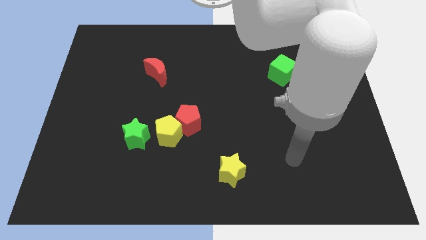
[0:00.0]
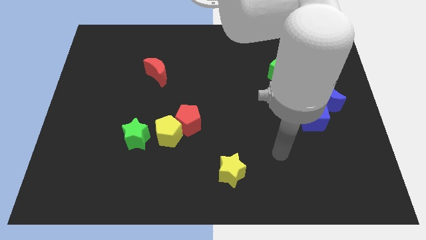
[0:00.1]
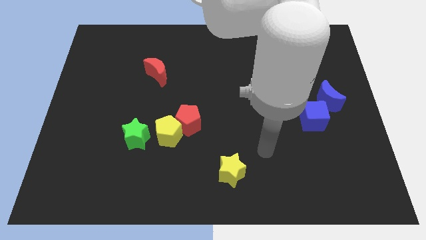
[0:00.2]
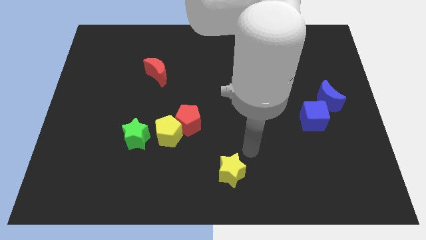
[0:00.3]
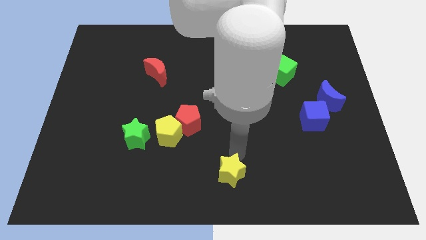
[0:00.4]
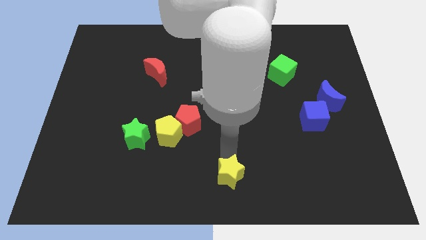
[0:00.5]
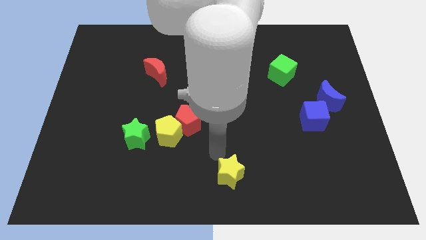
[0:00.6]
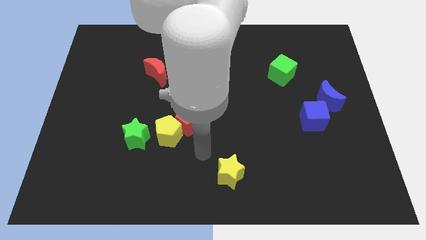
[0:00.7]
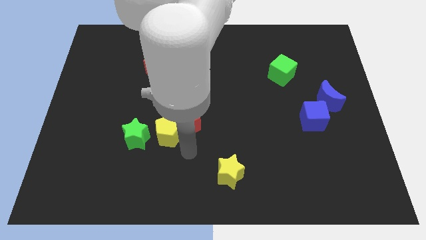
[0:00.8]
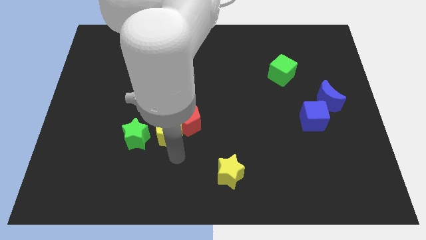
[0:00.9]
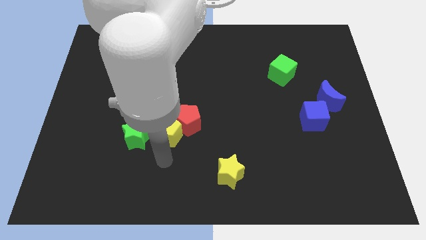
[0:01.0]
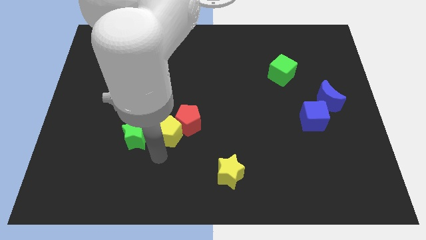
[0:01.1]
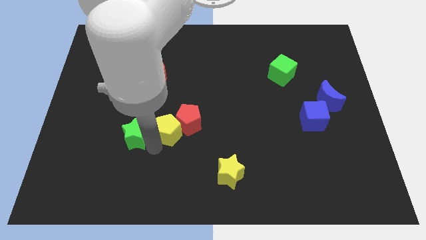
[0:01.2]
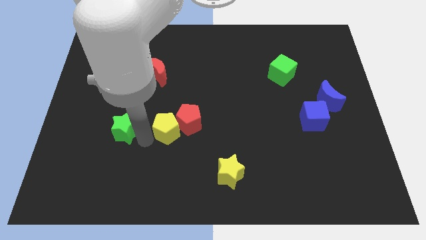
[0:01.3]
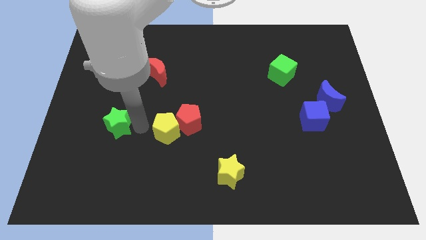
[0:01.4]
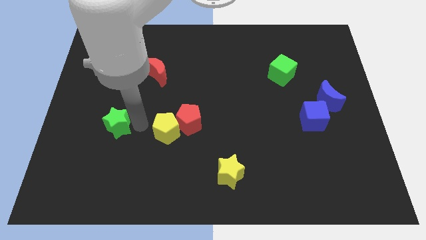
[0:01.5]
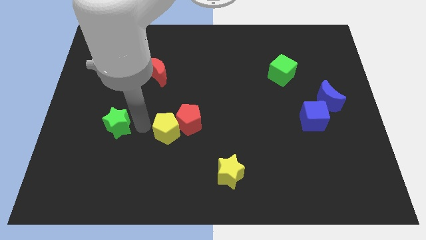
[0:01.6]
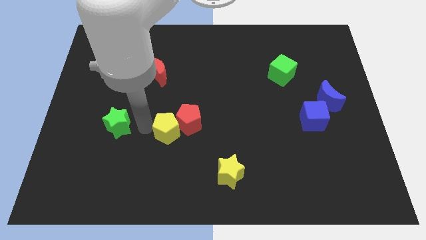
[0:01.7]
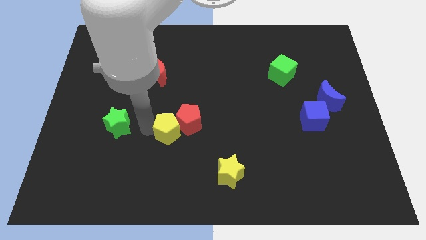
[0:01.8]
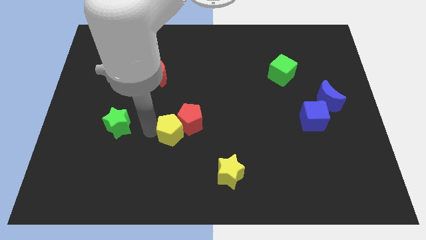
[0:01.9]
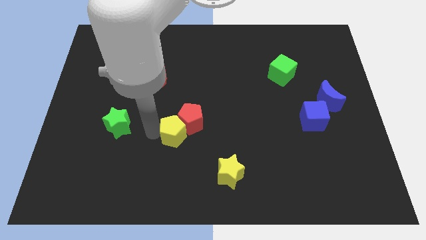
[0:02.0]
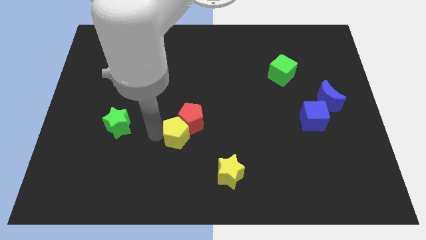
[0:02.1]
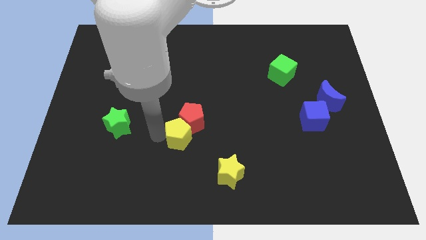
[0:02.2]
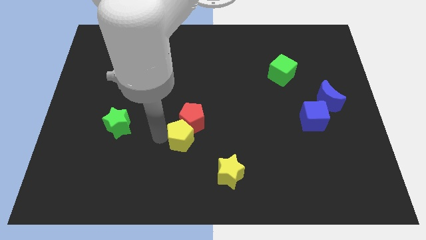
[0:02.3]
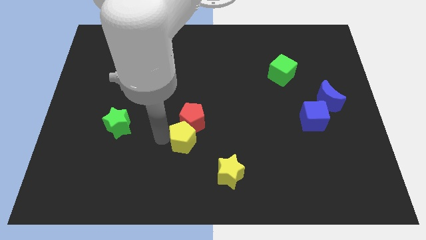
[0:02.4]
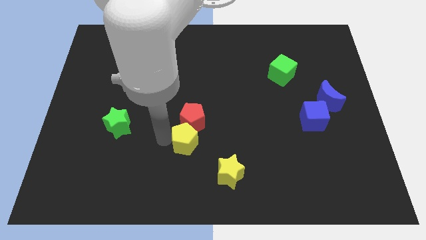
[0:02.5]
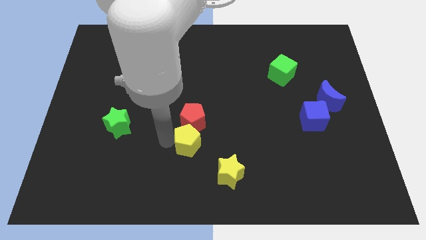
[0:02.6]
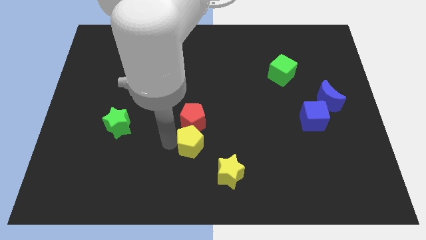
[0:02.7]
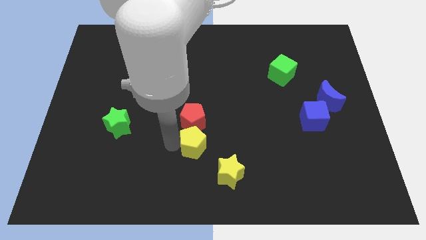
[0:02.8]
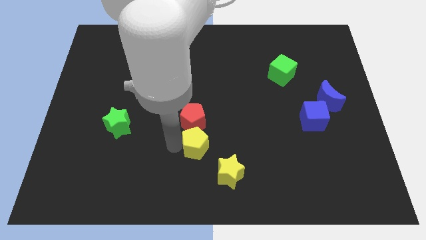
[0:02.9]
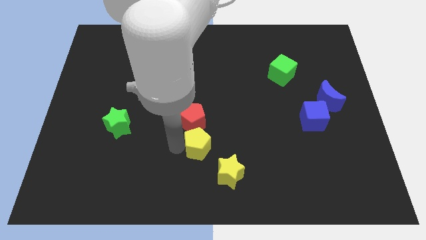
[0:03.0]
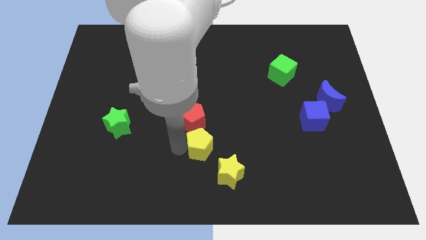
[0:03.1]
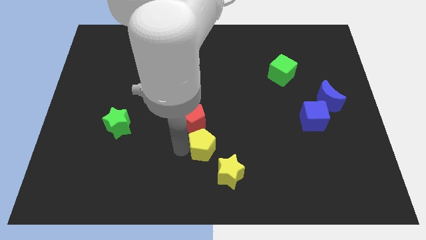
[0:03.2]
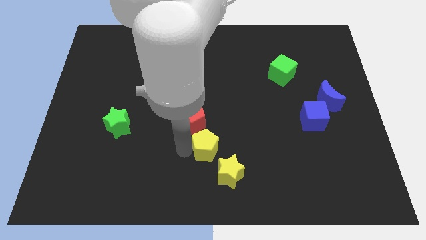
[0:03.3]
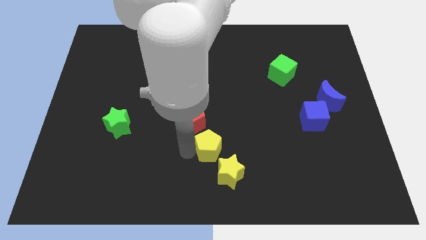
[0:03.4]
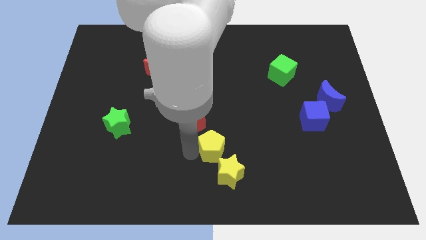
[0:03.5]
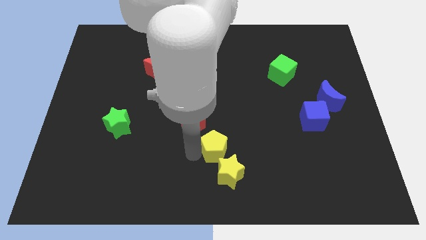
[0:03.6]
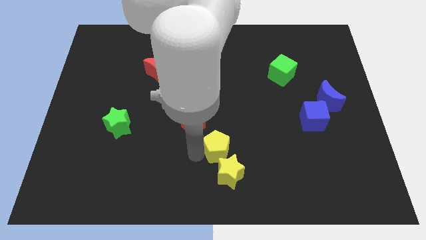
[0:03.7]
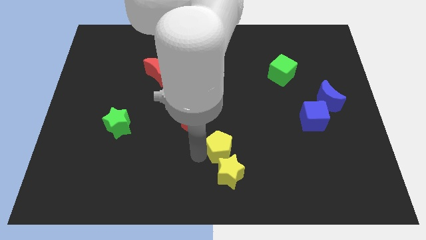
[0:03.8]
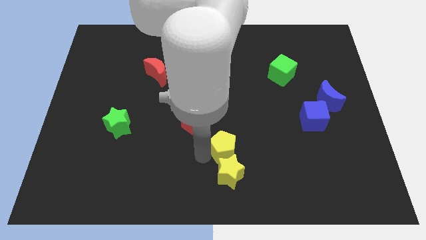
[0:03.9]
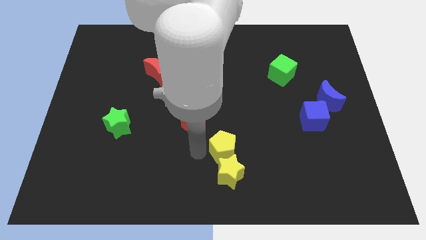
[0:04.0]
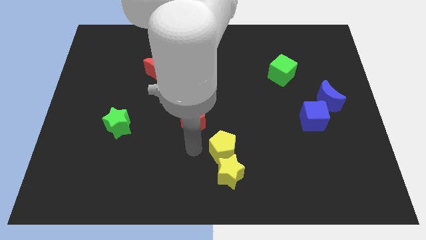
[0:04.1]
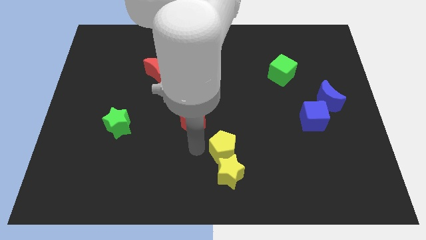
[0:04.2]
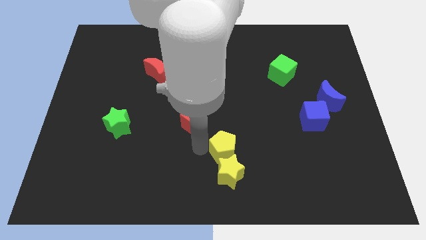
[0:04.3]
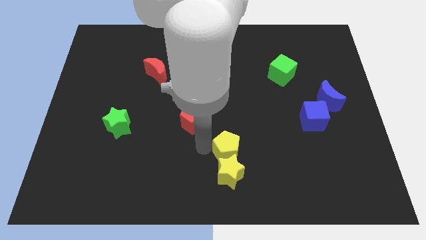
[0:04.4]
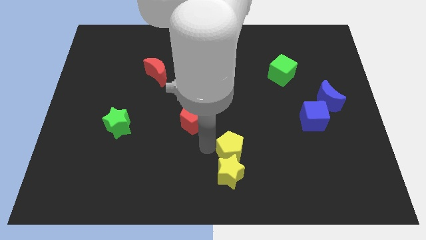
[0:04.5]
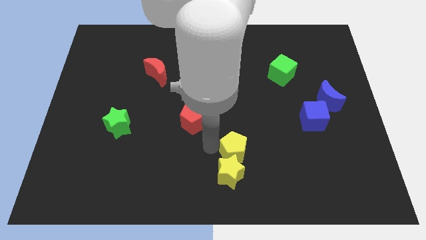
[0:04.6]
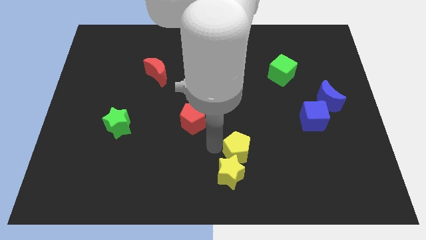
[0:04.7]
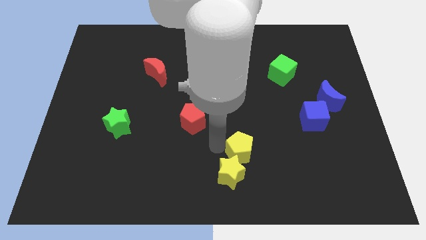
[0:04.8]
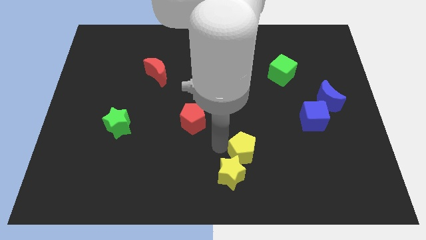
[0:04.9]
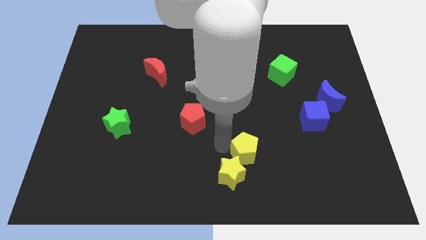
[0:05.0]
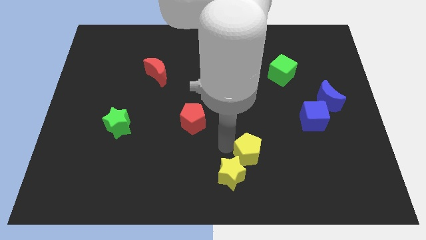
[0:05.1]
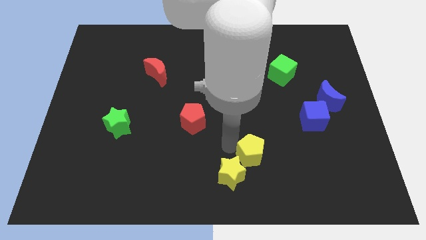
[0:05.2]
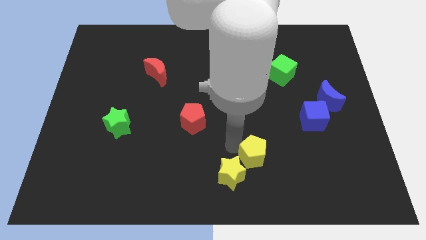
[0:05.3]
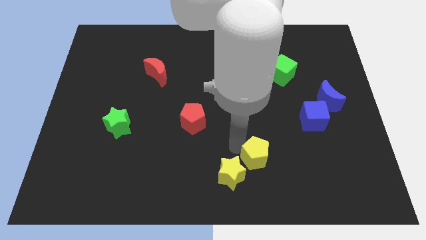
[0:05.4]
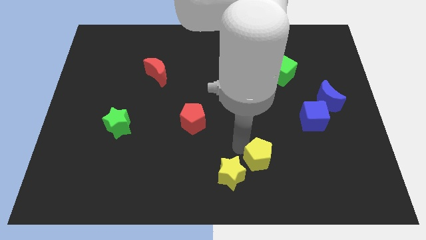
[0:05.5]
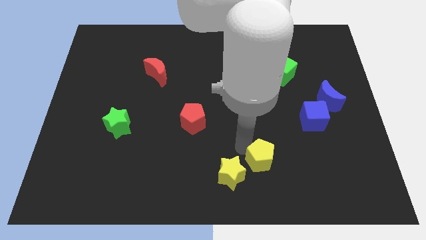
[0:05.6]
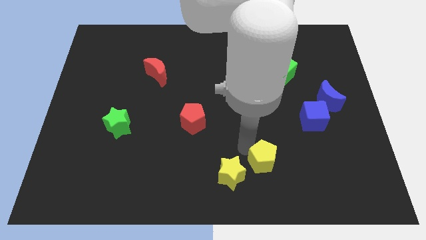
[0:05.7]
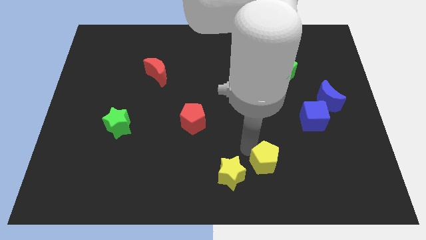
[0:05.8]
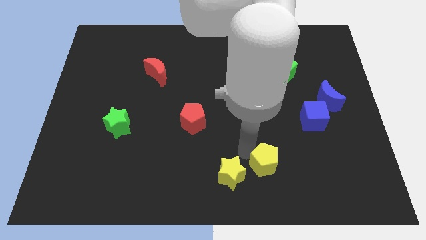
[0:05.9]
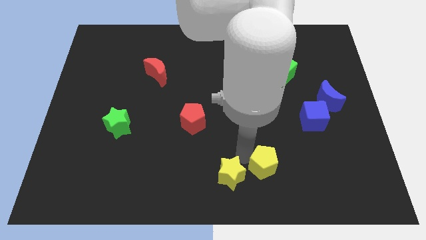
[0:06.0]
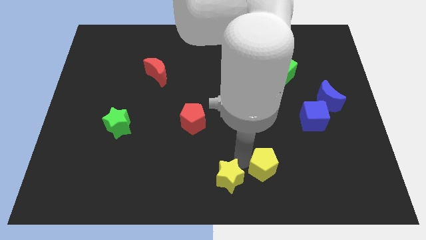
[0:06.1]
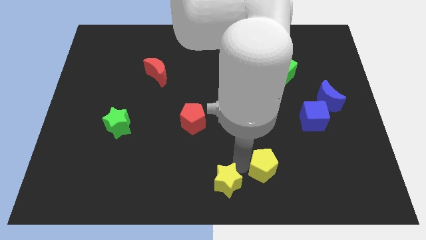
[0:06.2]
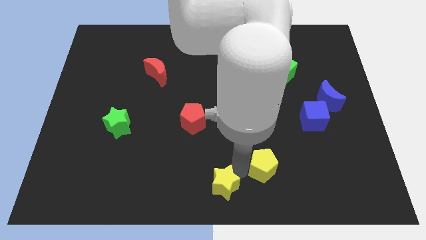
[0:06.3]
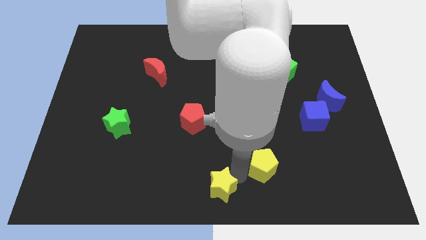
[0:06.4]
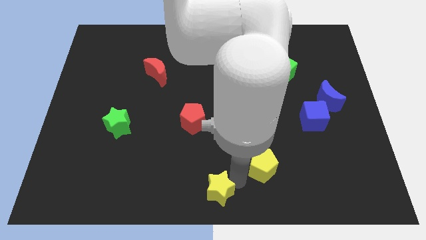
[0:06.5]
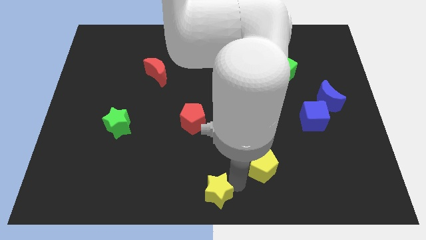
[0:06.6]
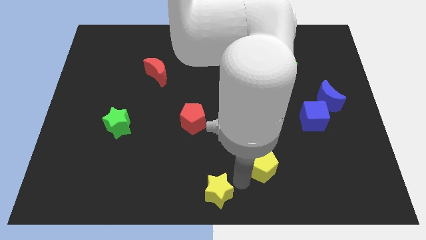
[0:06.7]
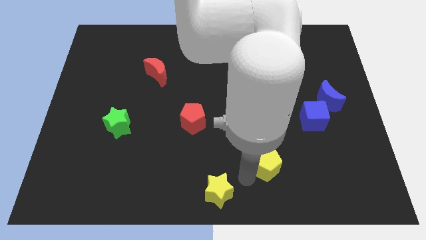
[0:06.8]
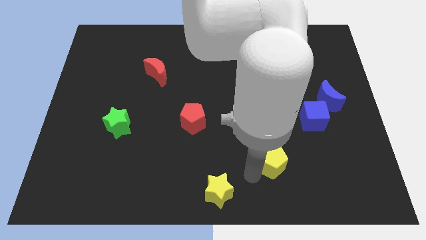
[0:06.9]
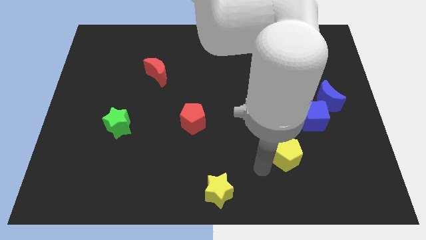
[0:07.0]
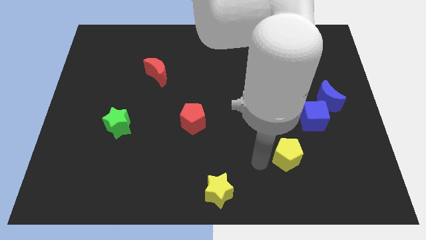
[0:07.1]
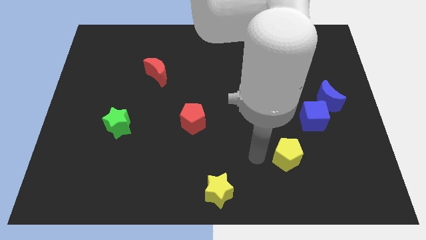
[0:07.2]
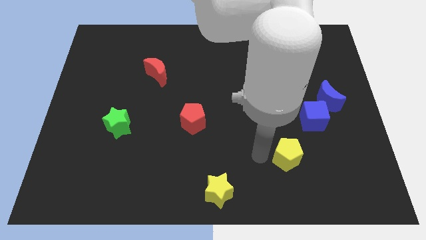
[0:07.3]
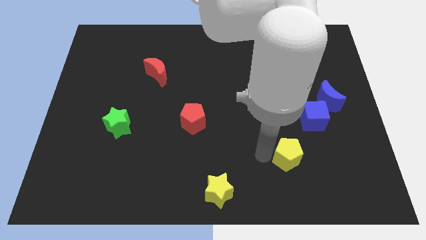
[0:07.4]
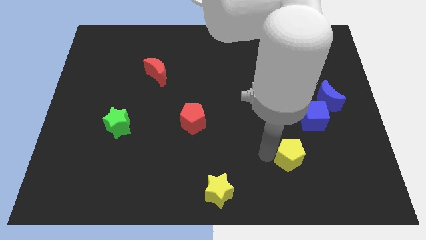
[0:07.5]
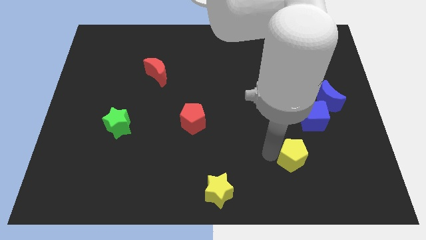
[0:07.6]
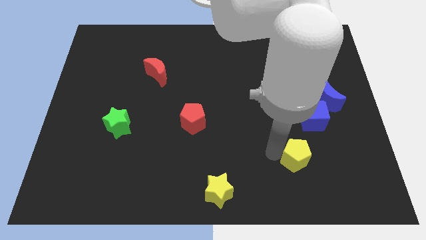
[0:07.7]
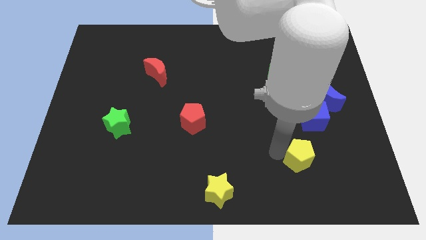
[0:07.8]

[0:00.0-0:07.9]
push the yellow pentagon to the bottom side of the blue cube

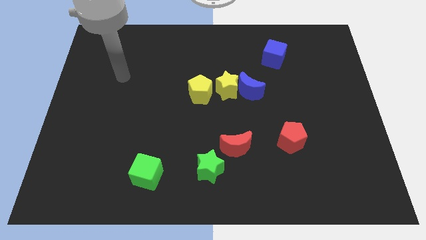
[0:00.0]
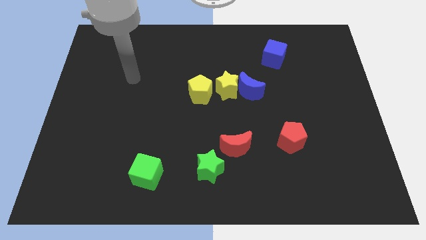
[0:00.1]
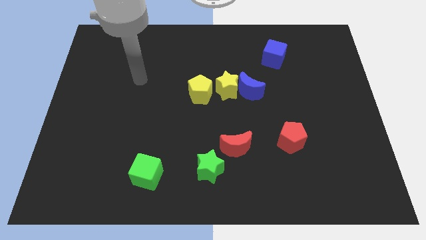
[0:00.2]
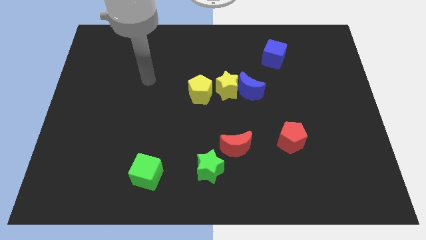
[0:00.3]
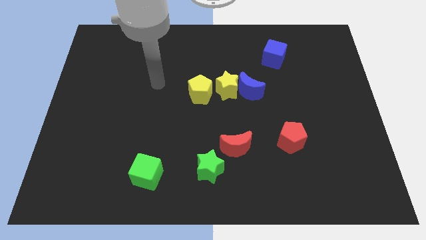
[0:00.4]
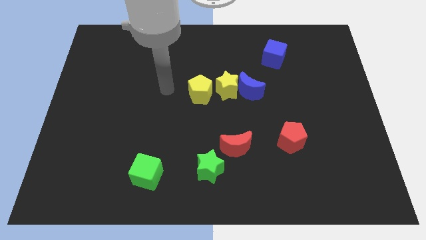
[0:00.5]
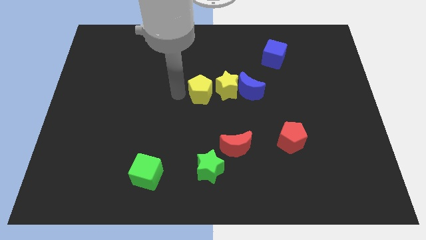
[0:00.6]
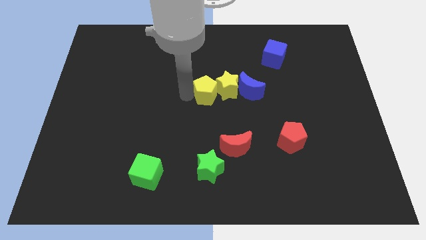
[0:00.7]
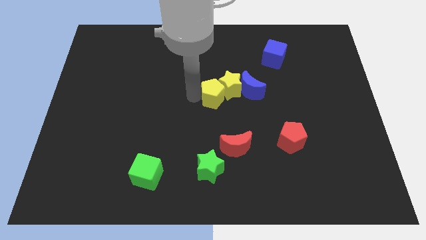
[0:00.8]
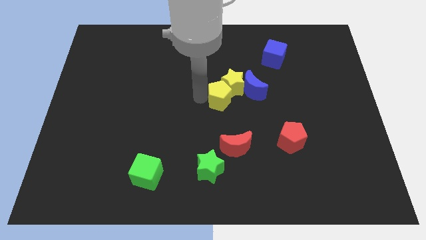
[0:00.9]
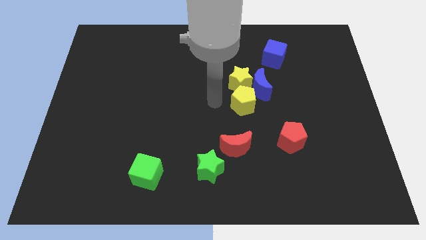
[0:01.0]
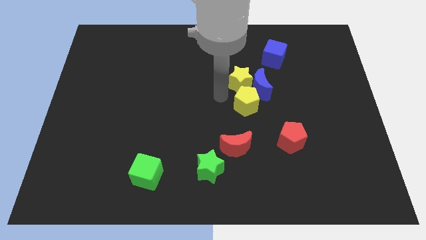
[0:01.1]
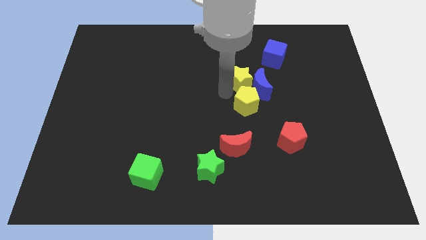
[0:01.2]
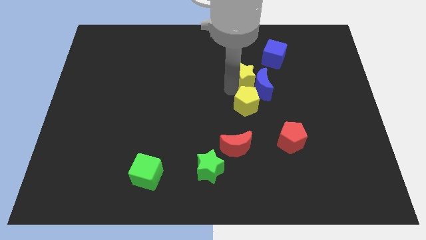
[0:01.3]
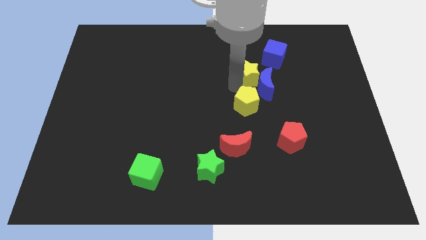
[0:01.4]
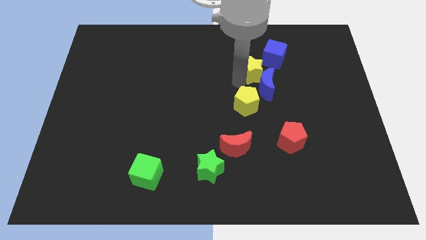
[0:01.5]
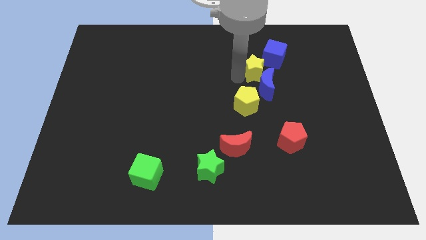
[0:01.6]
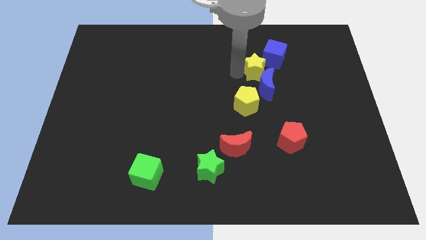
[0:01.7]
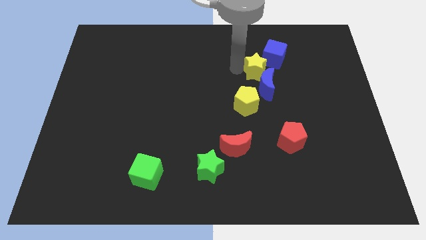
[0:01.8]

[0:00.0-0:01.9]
push the yellow star to the bottom side of the blue cube
